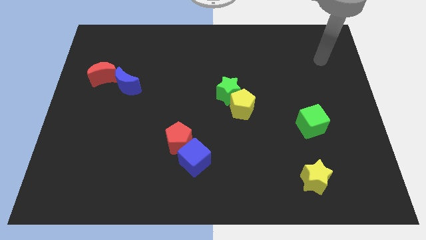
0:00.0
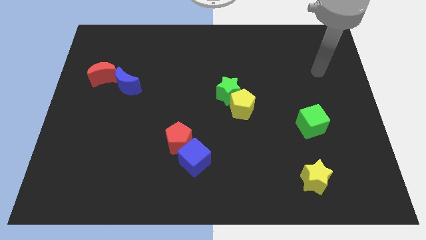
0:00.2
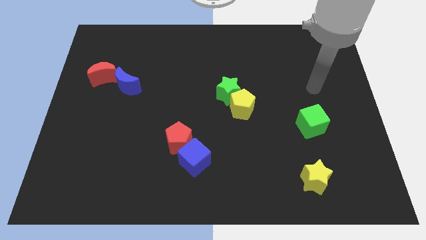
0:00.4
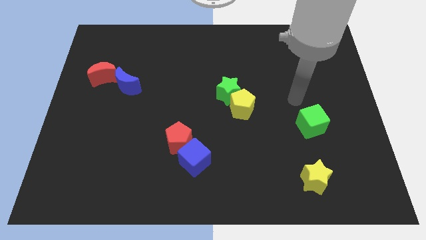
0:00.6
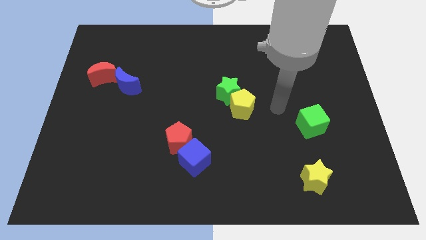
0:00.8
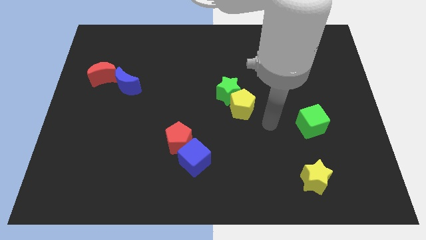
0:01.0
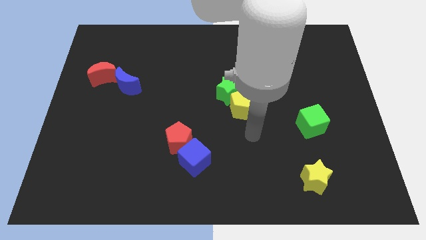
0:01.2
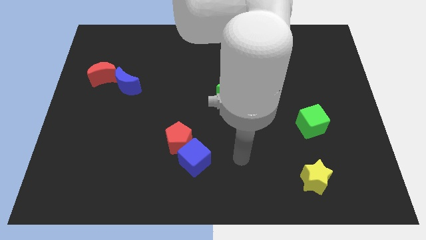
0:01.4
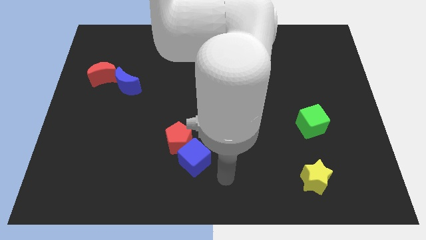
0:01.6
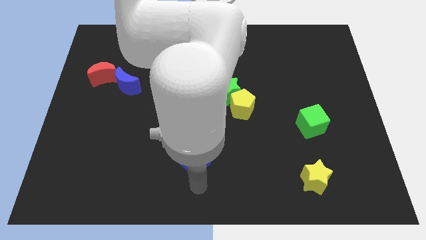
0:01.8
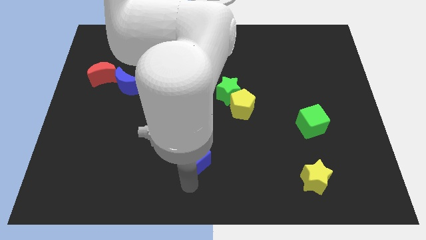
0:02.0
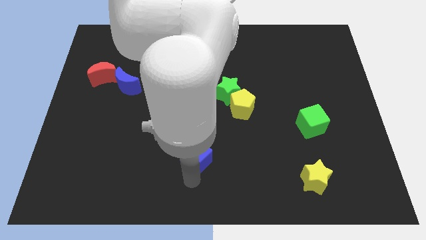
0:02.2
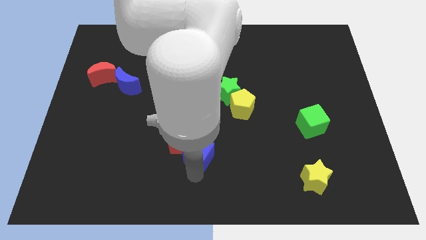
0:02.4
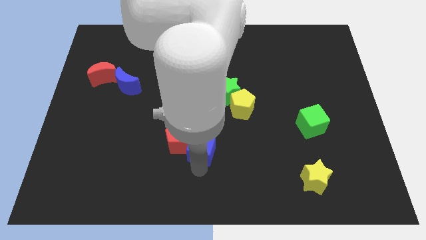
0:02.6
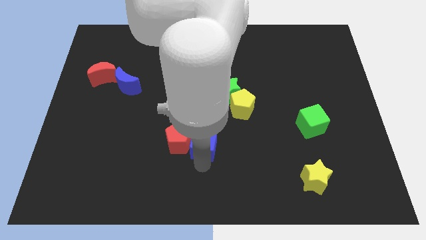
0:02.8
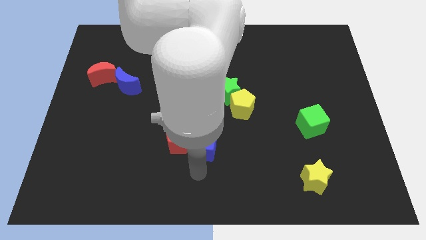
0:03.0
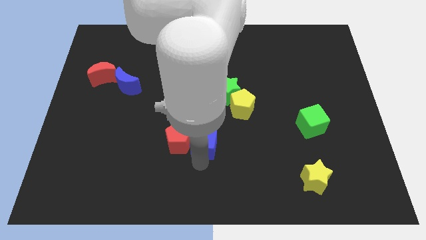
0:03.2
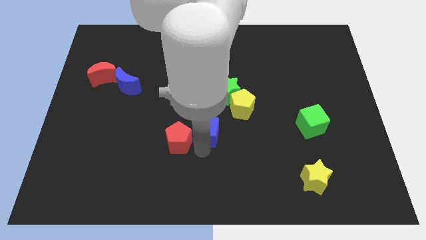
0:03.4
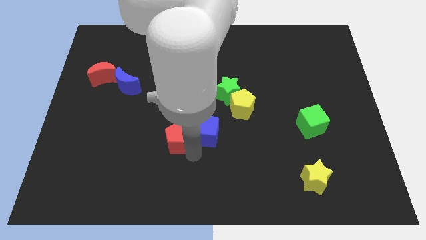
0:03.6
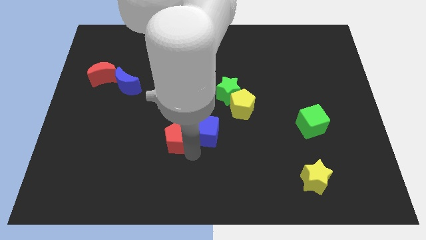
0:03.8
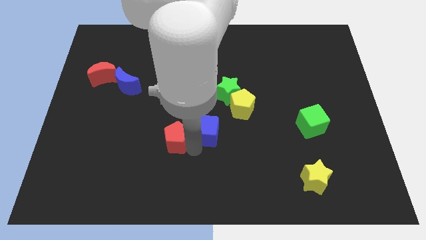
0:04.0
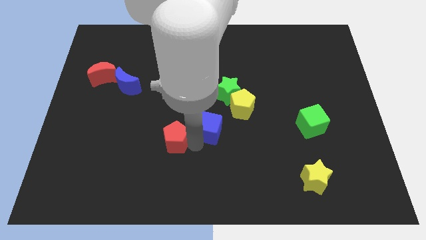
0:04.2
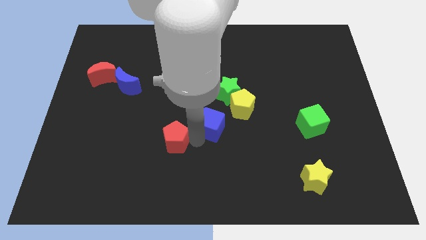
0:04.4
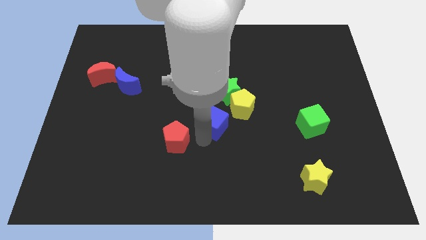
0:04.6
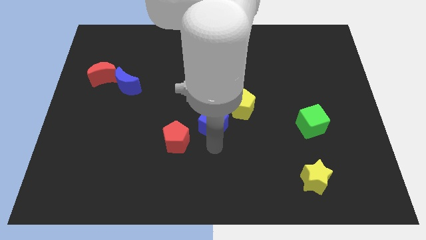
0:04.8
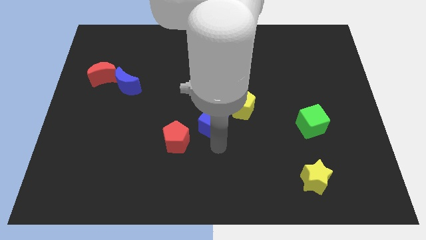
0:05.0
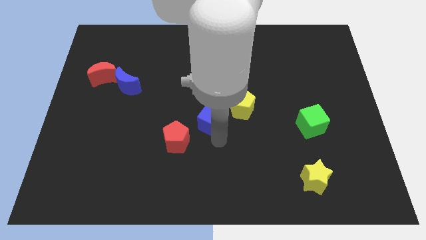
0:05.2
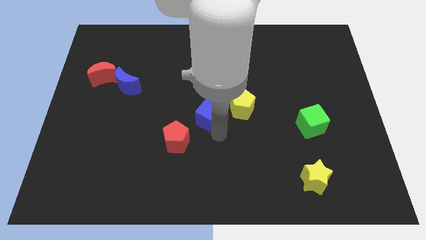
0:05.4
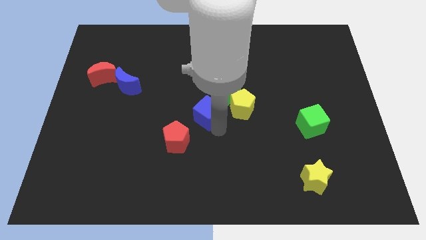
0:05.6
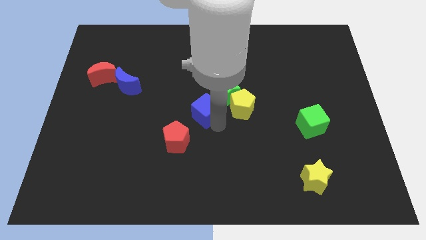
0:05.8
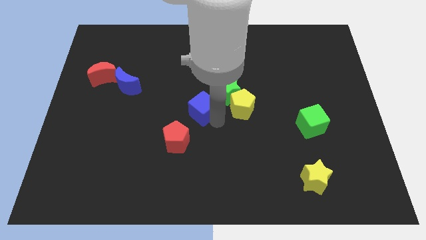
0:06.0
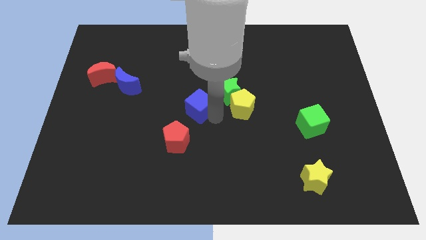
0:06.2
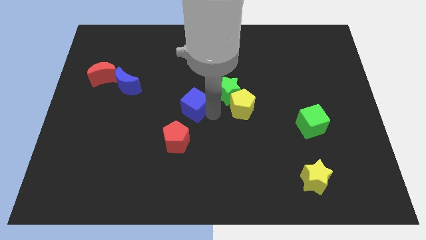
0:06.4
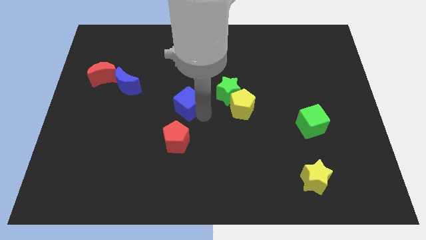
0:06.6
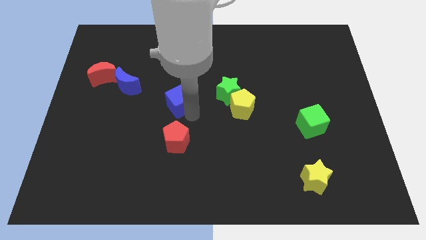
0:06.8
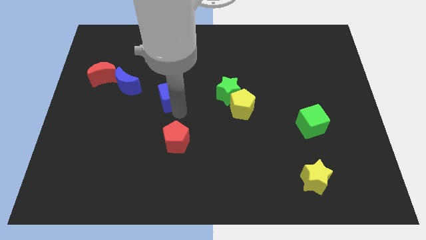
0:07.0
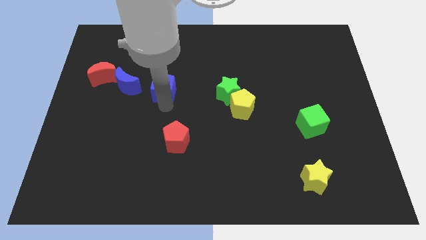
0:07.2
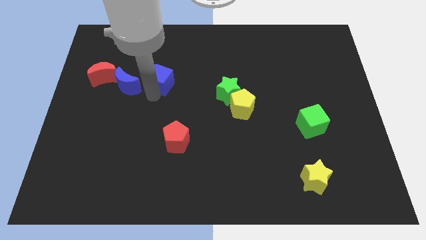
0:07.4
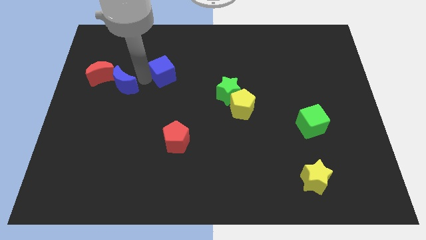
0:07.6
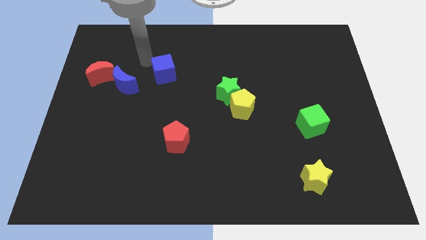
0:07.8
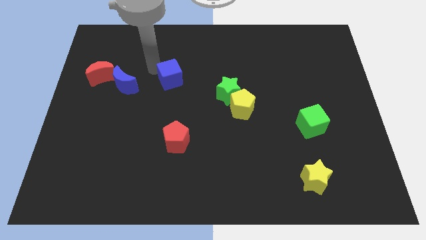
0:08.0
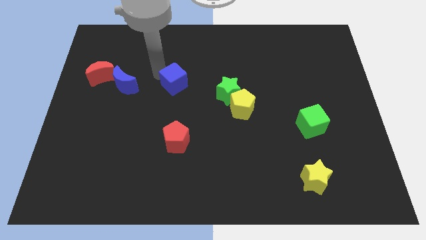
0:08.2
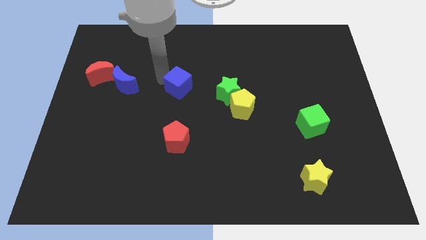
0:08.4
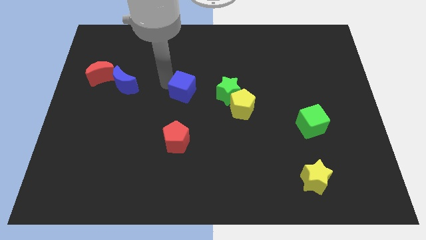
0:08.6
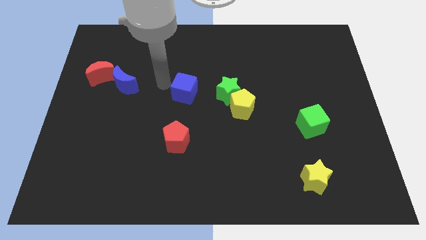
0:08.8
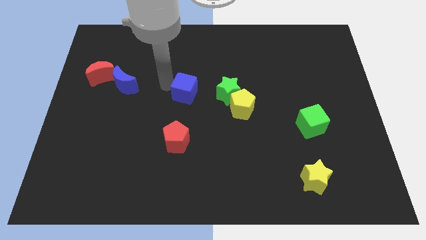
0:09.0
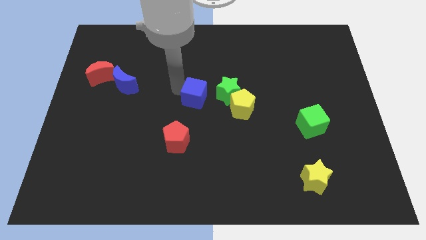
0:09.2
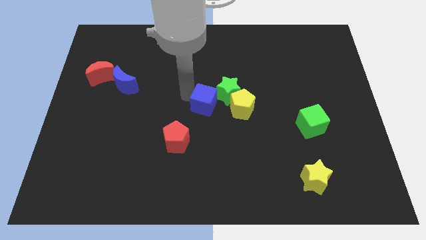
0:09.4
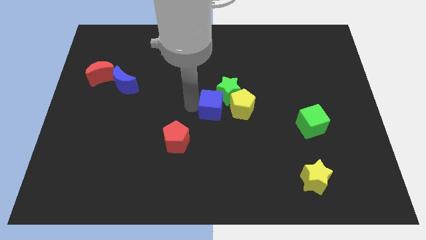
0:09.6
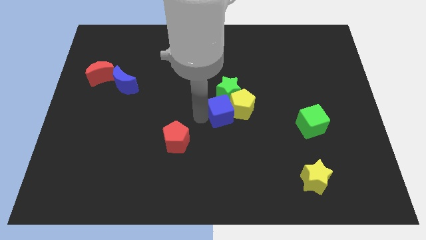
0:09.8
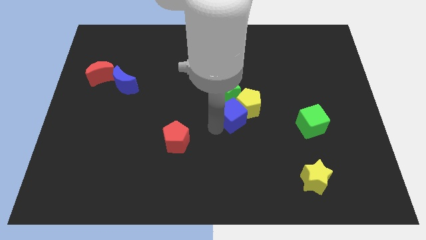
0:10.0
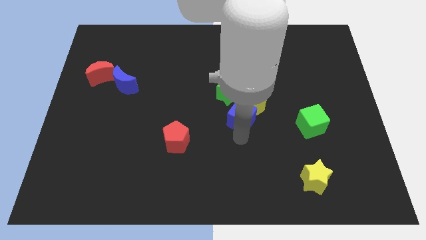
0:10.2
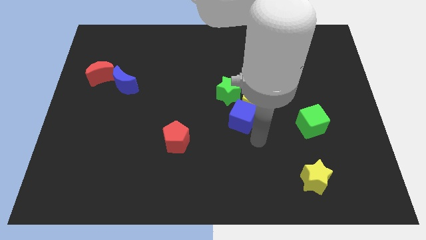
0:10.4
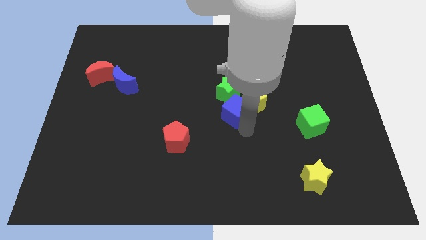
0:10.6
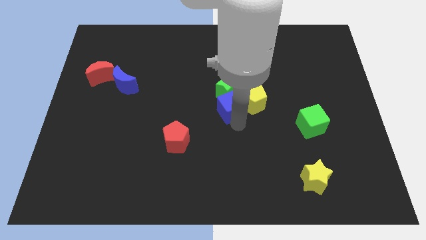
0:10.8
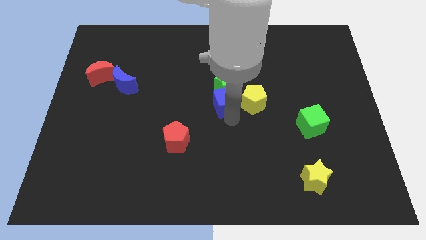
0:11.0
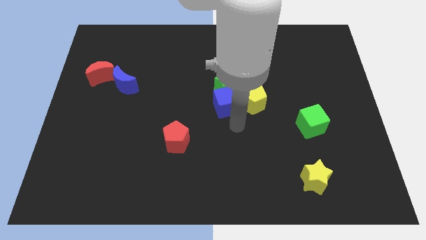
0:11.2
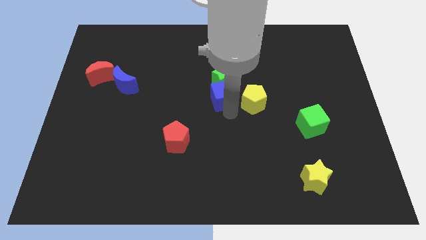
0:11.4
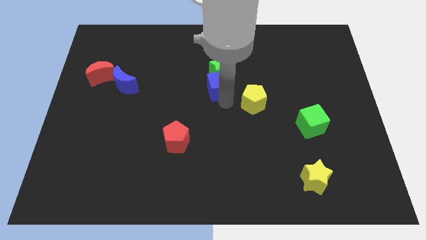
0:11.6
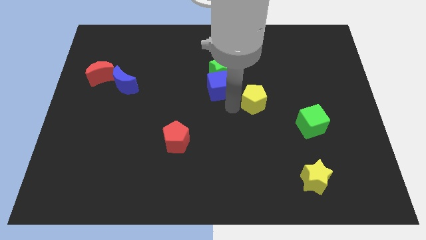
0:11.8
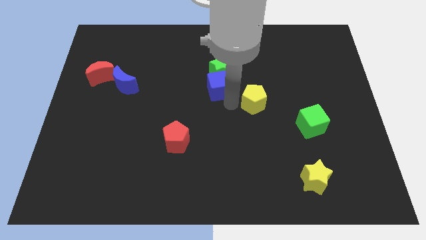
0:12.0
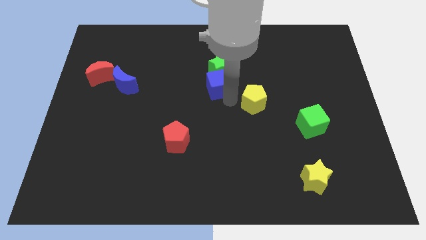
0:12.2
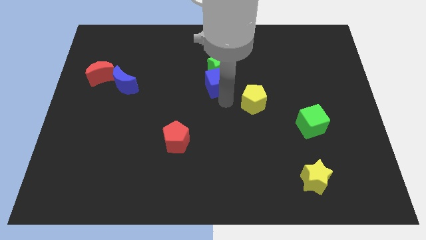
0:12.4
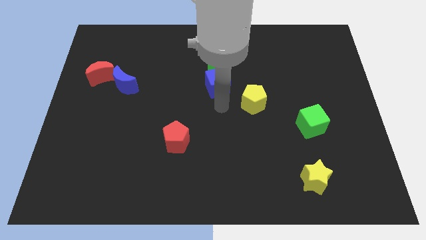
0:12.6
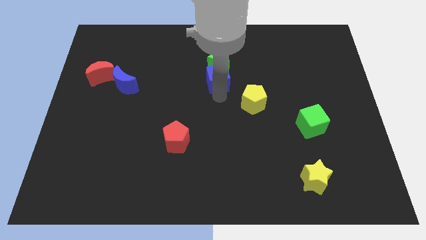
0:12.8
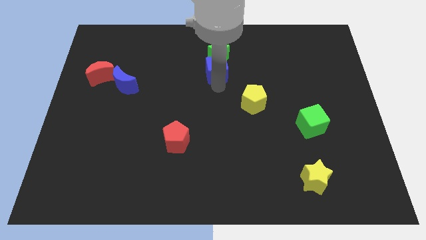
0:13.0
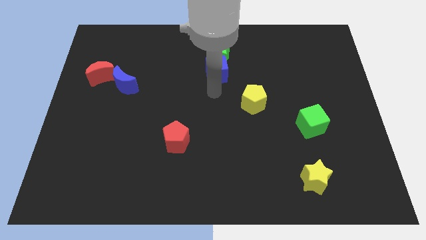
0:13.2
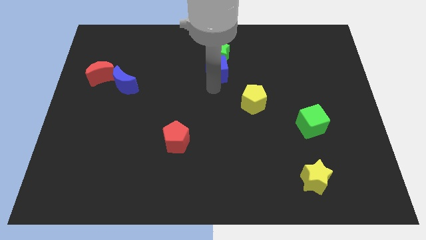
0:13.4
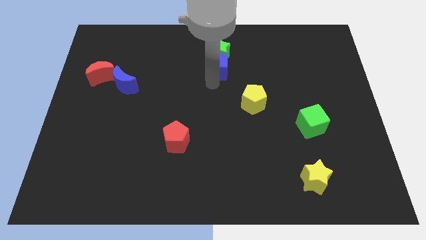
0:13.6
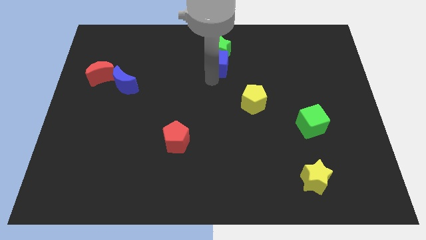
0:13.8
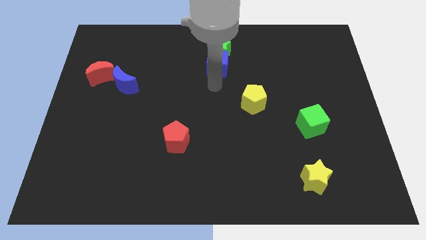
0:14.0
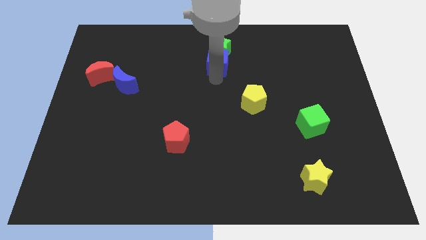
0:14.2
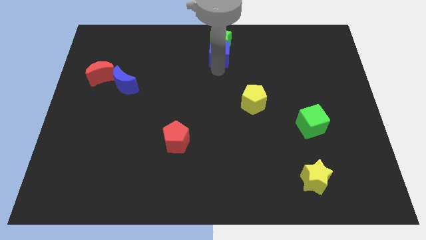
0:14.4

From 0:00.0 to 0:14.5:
slide the blue cube to the top side
